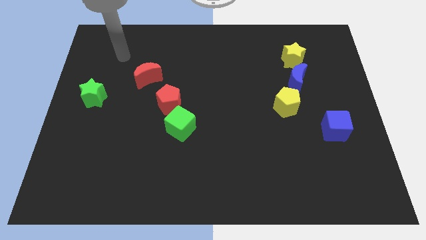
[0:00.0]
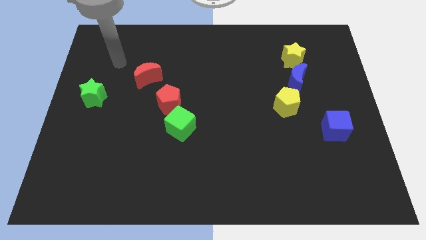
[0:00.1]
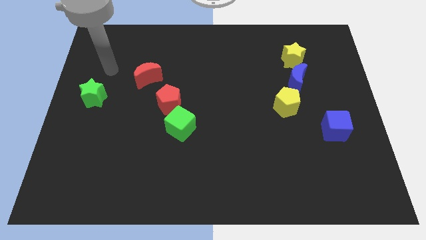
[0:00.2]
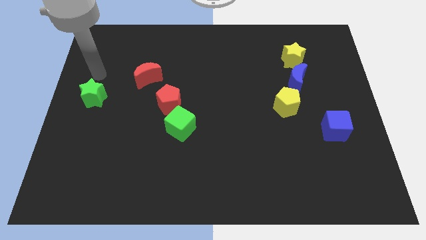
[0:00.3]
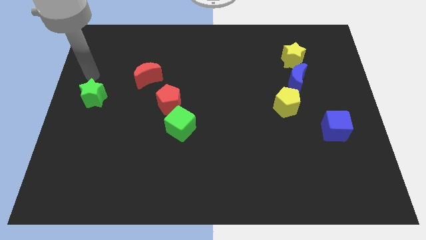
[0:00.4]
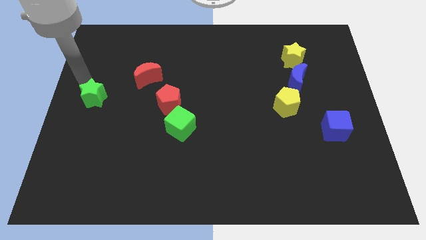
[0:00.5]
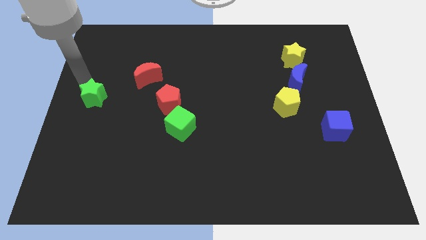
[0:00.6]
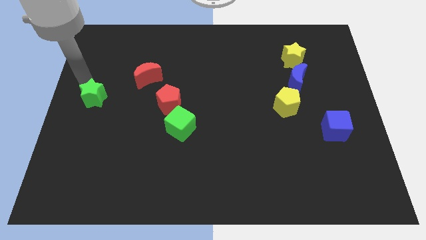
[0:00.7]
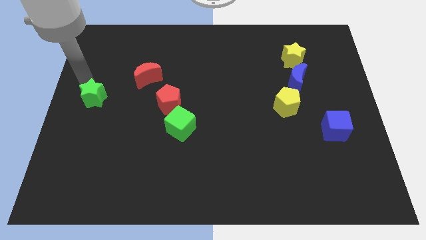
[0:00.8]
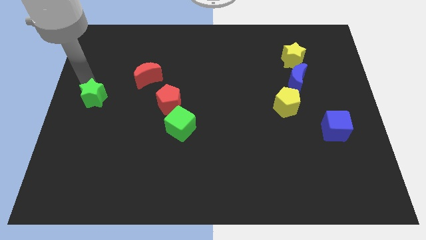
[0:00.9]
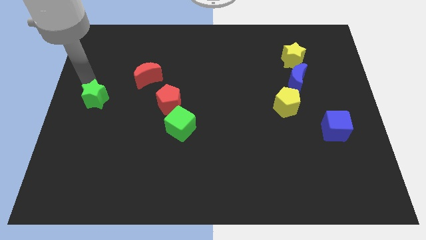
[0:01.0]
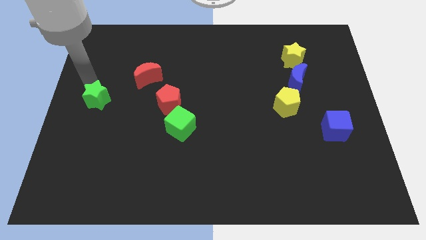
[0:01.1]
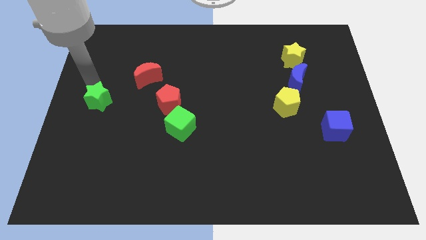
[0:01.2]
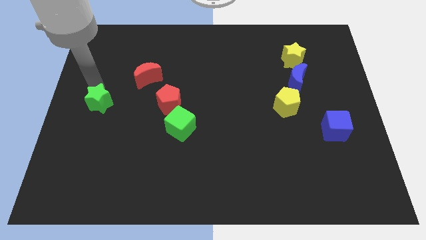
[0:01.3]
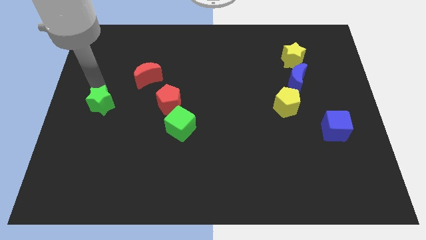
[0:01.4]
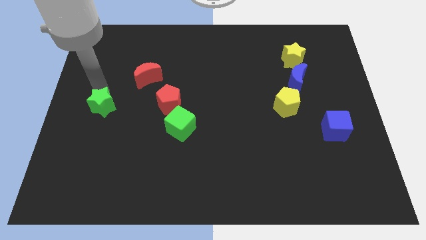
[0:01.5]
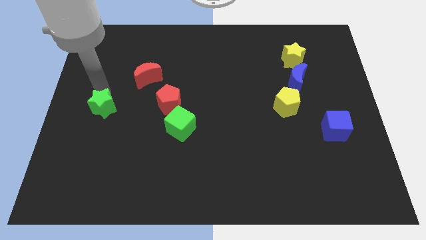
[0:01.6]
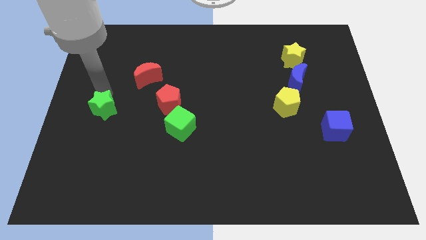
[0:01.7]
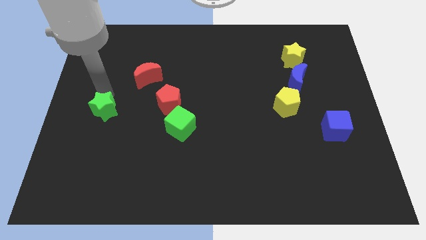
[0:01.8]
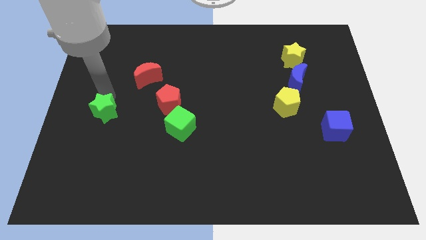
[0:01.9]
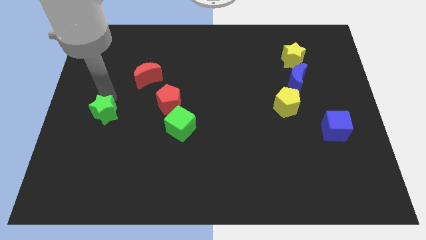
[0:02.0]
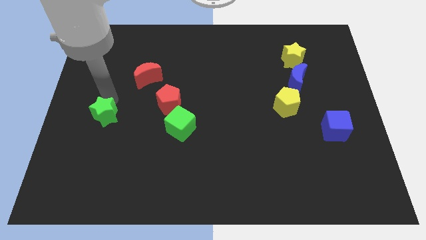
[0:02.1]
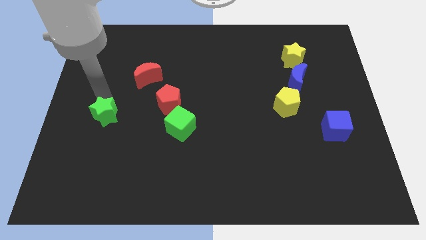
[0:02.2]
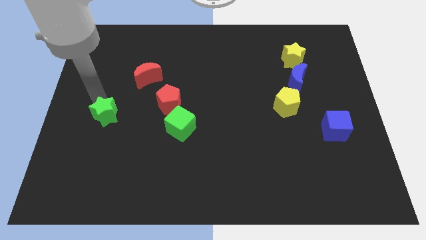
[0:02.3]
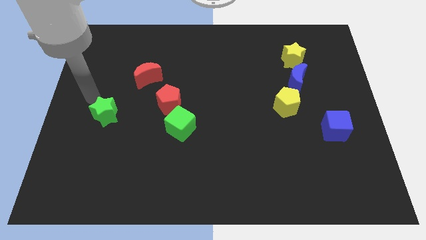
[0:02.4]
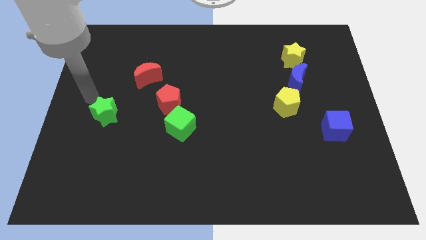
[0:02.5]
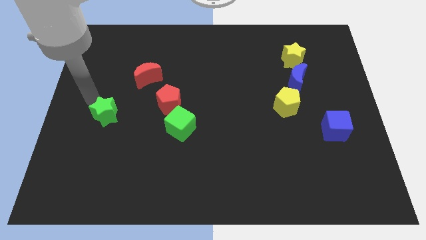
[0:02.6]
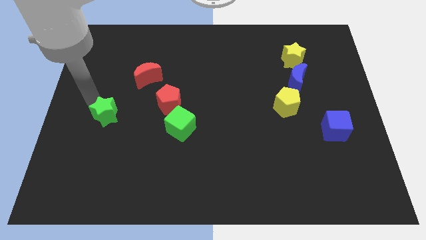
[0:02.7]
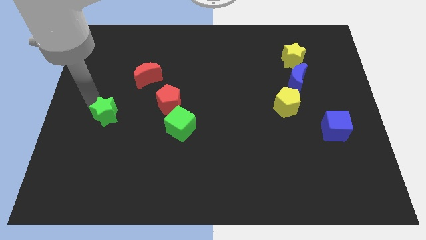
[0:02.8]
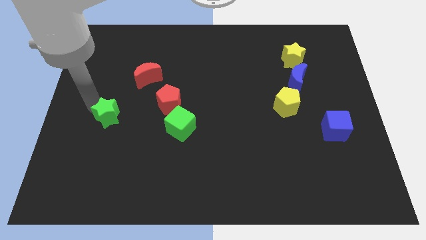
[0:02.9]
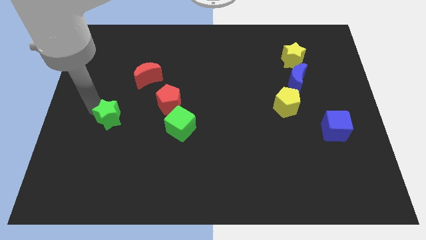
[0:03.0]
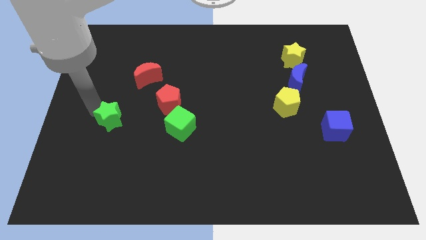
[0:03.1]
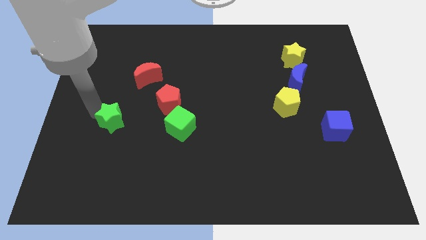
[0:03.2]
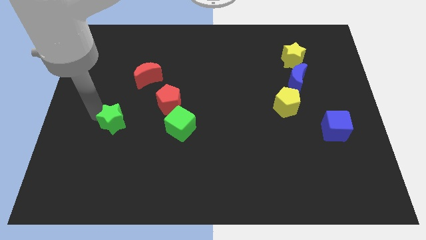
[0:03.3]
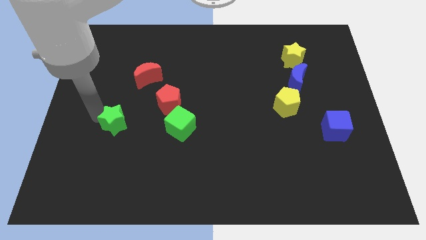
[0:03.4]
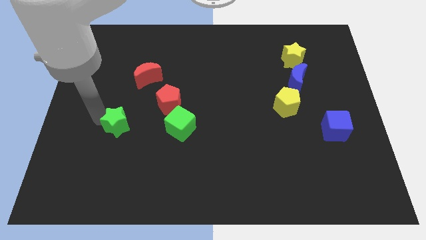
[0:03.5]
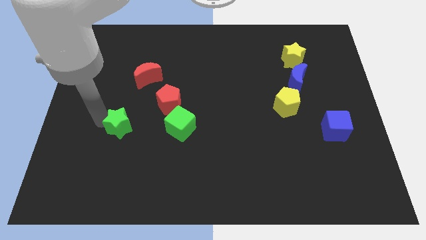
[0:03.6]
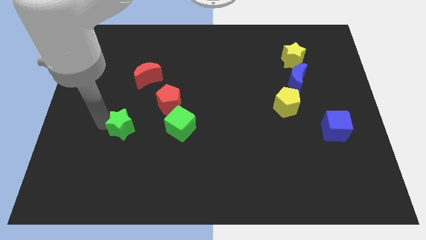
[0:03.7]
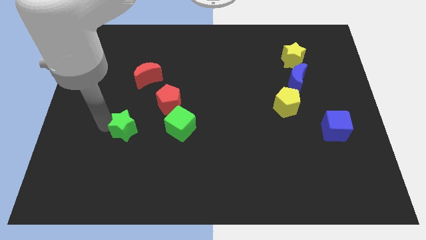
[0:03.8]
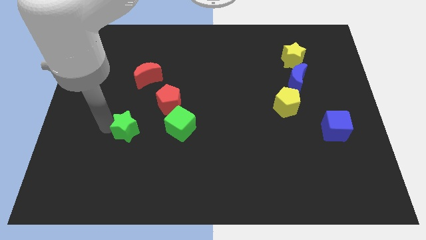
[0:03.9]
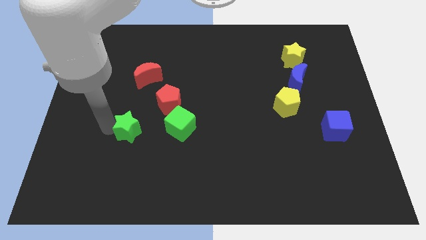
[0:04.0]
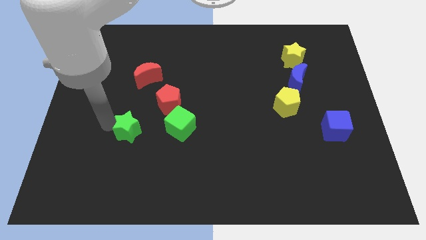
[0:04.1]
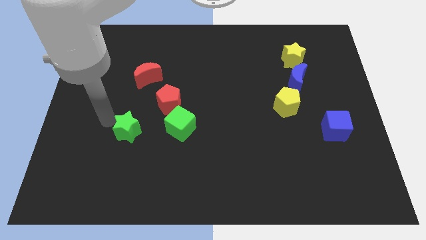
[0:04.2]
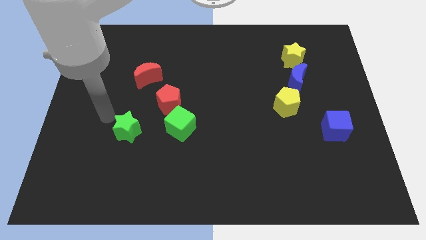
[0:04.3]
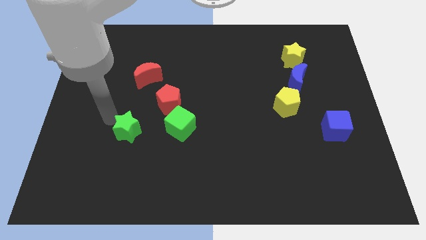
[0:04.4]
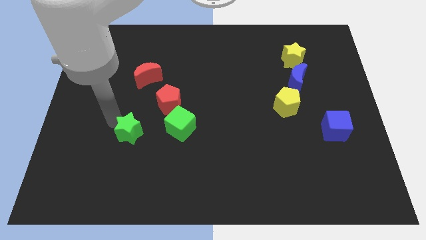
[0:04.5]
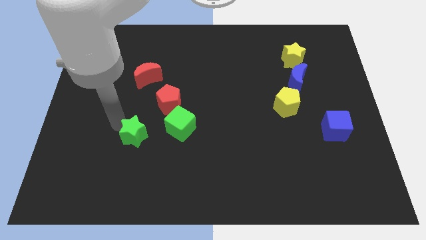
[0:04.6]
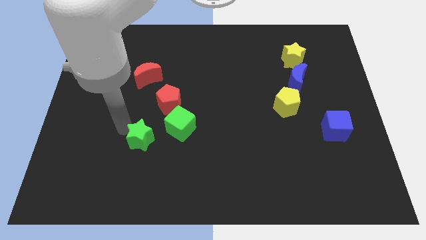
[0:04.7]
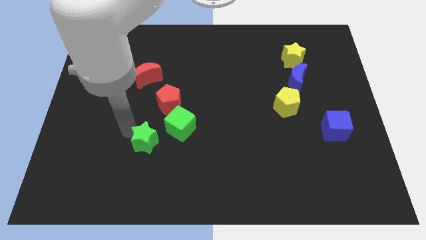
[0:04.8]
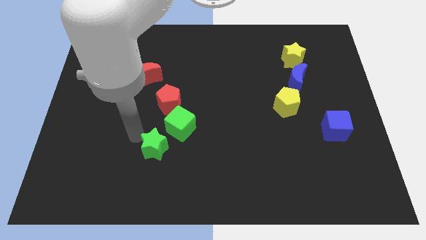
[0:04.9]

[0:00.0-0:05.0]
move the green star down and then to the right

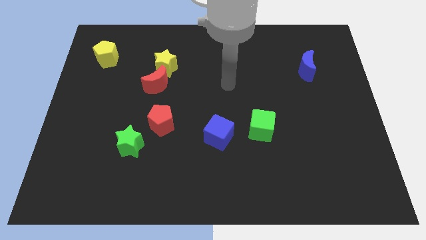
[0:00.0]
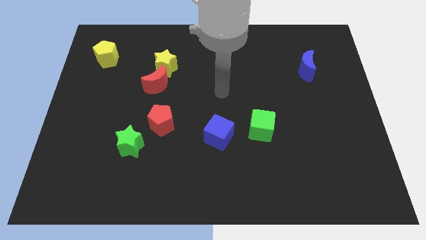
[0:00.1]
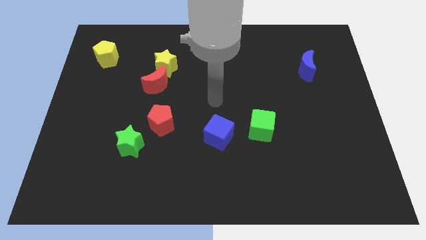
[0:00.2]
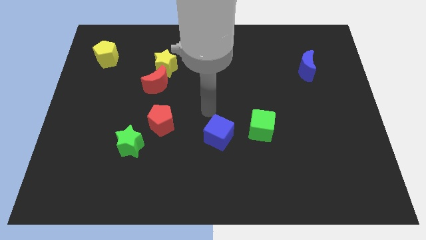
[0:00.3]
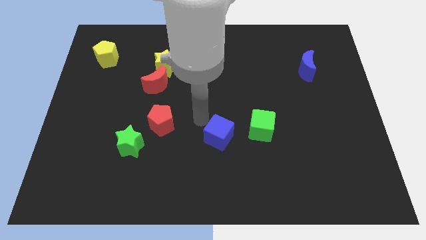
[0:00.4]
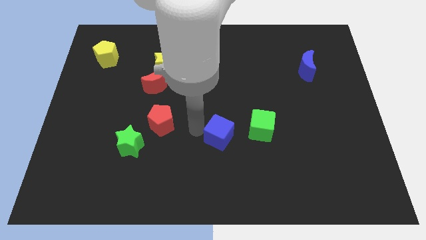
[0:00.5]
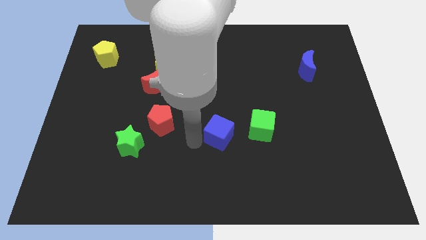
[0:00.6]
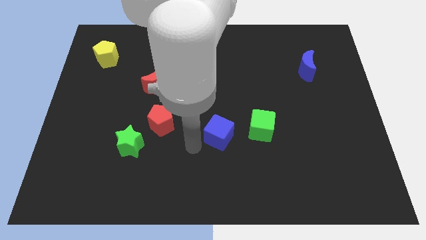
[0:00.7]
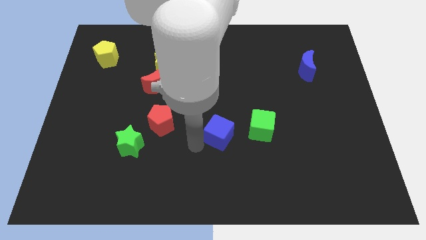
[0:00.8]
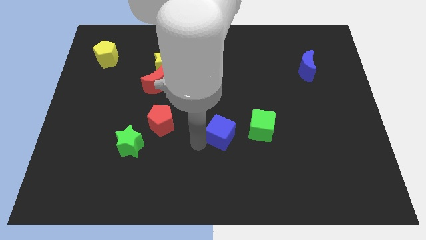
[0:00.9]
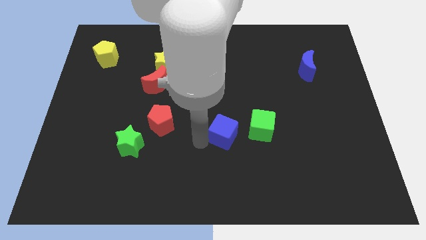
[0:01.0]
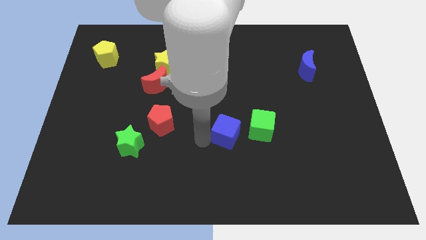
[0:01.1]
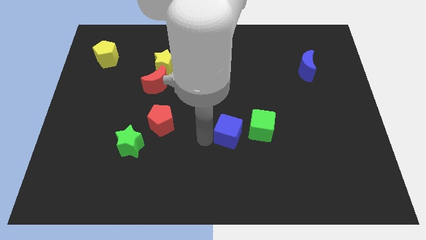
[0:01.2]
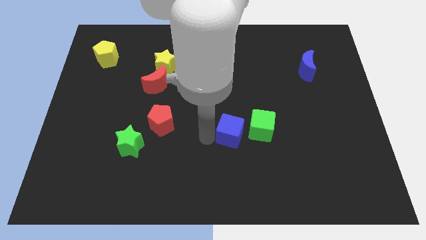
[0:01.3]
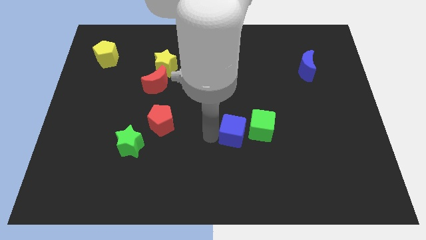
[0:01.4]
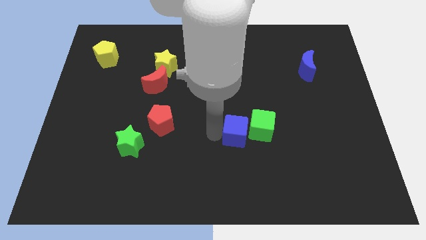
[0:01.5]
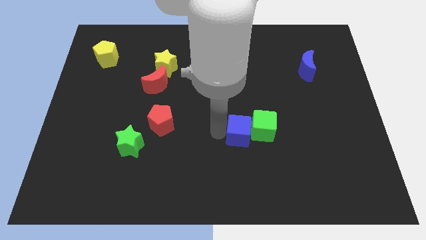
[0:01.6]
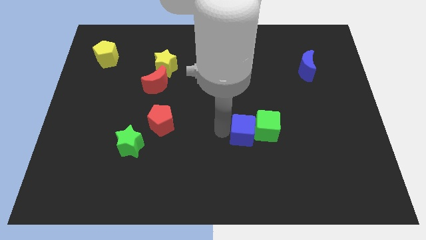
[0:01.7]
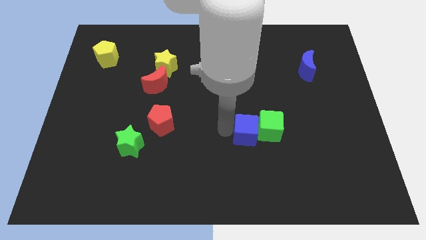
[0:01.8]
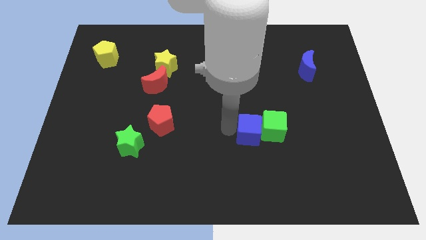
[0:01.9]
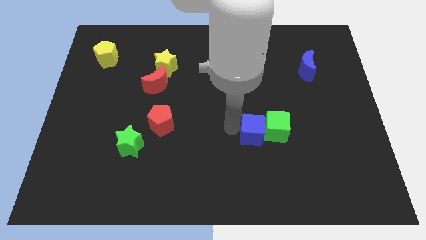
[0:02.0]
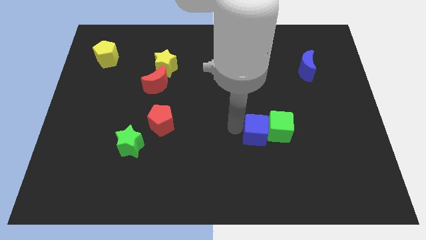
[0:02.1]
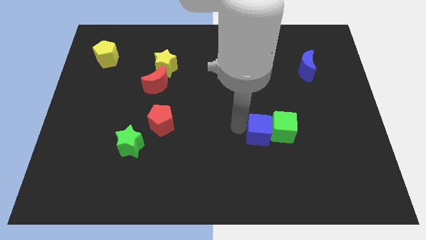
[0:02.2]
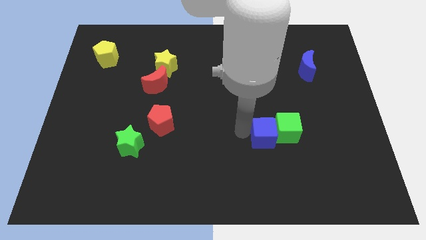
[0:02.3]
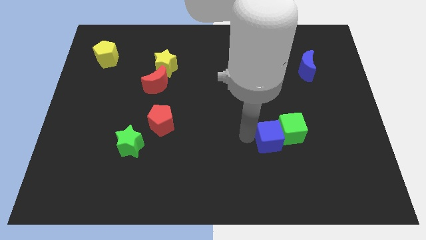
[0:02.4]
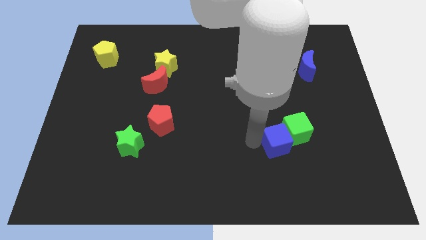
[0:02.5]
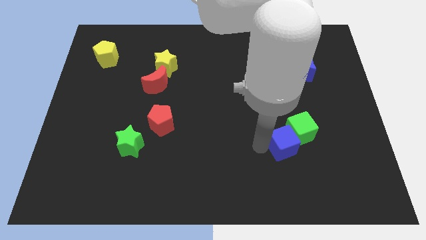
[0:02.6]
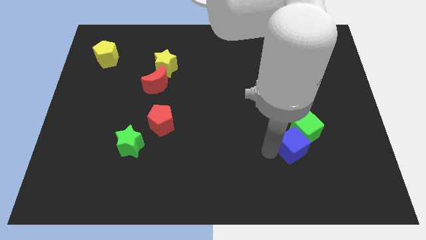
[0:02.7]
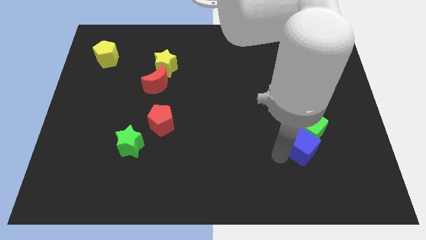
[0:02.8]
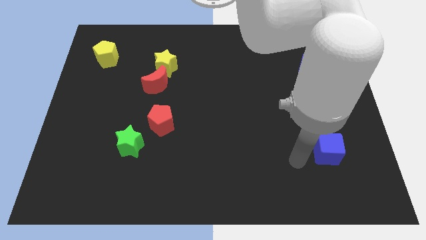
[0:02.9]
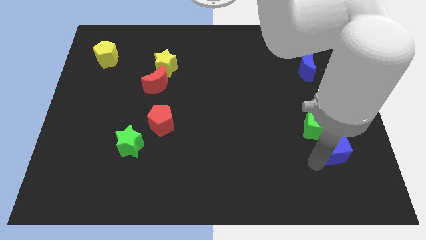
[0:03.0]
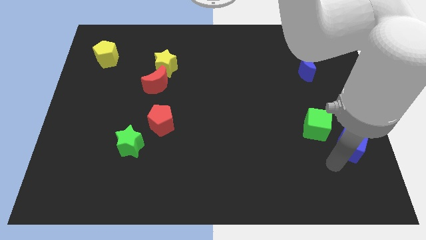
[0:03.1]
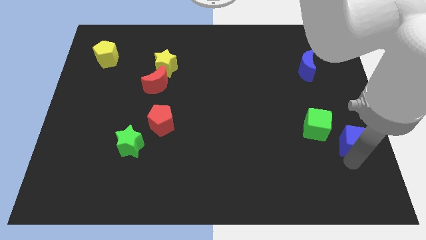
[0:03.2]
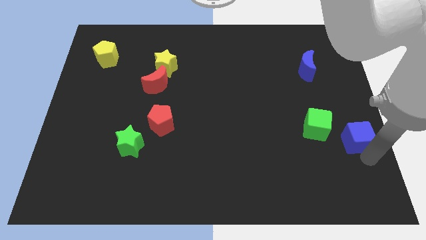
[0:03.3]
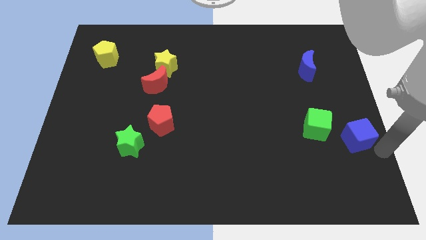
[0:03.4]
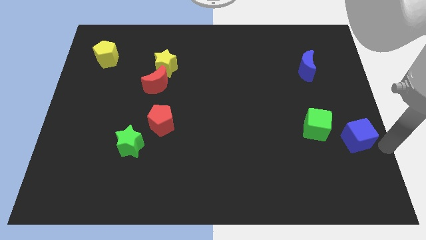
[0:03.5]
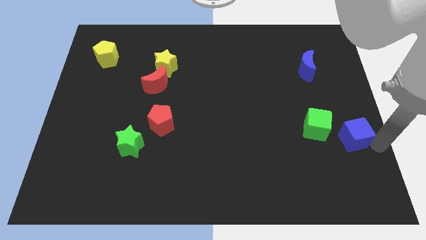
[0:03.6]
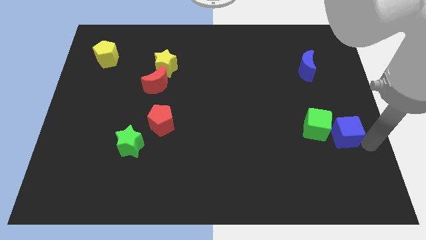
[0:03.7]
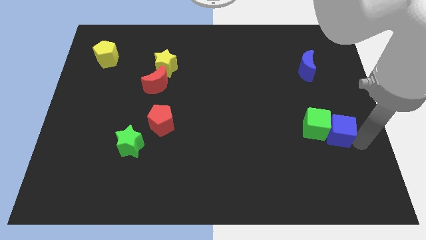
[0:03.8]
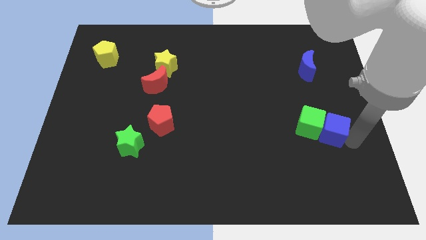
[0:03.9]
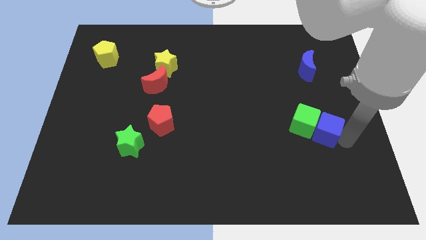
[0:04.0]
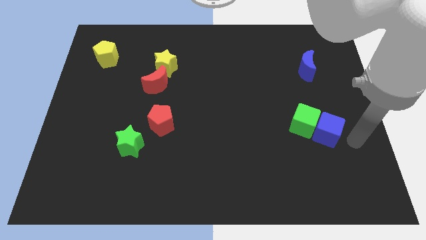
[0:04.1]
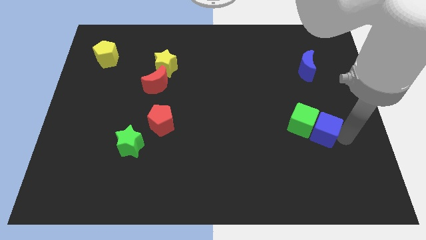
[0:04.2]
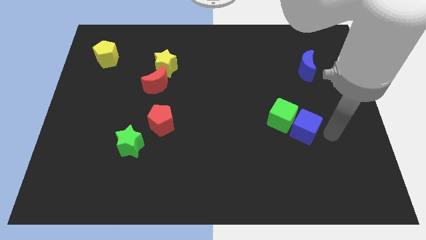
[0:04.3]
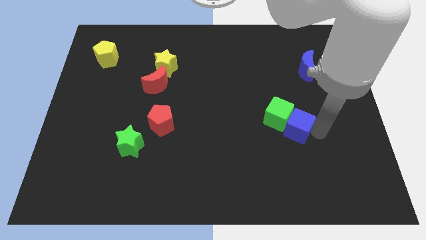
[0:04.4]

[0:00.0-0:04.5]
move the blue cube upwards and to the right diagonally somewhat
